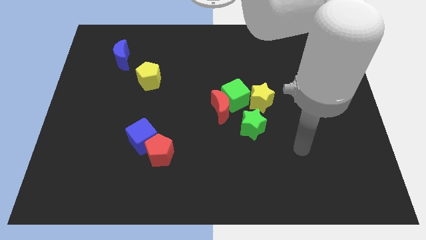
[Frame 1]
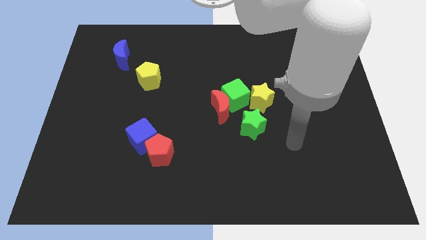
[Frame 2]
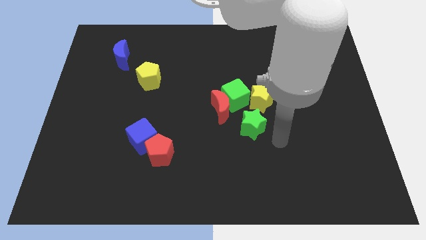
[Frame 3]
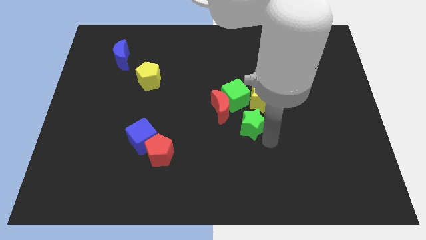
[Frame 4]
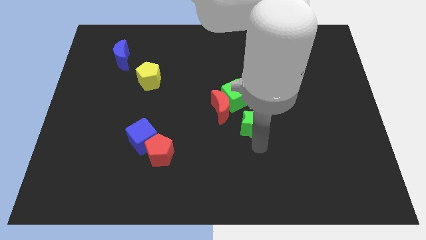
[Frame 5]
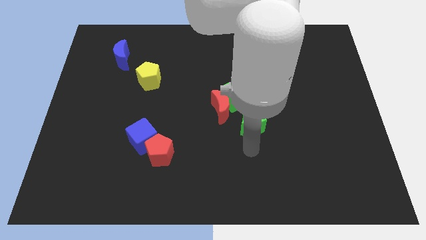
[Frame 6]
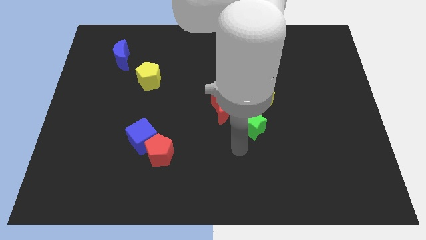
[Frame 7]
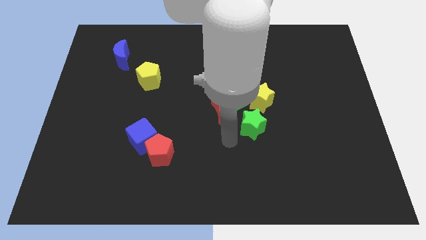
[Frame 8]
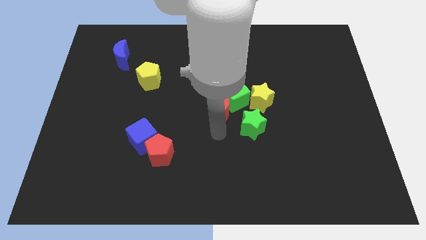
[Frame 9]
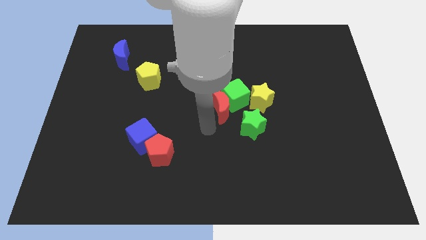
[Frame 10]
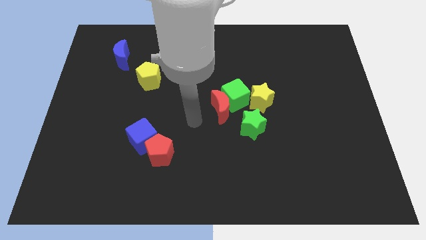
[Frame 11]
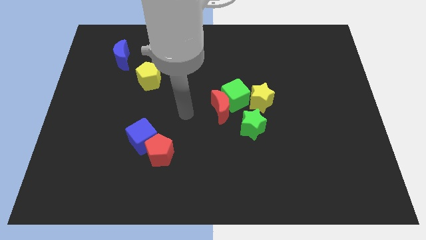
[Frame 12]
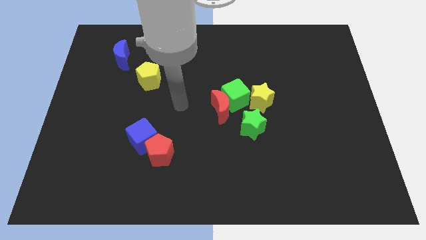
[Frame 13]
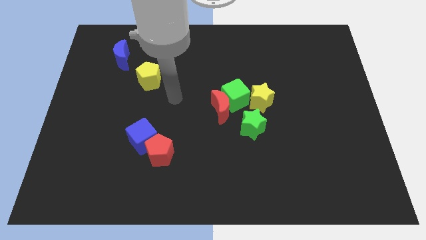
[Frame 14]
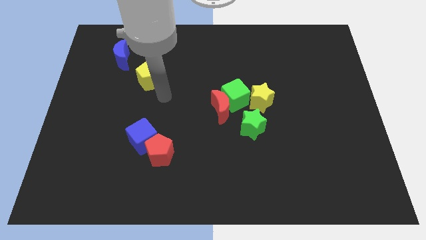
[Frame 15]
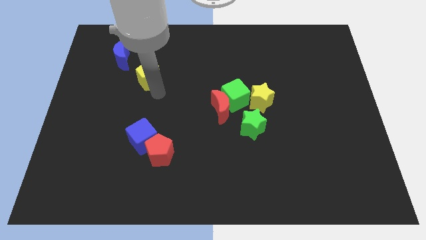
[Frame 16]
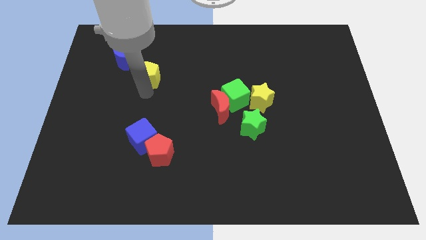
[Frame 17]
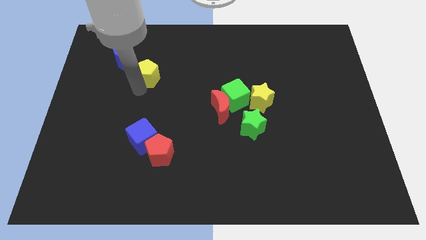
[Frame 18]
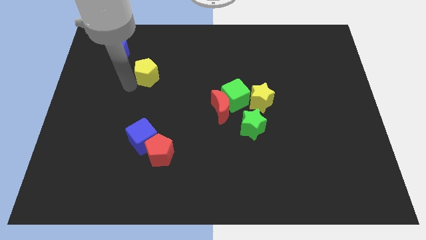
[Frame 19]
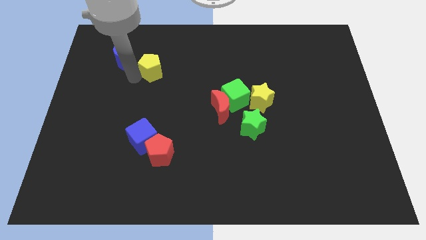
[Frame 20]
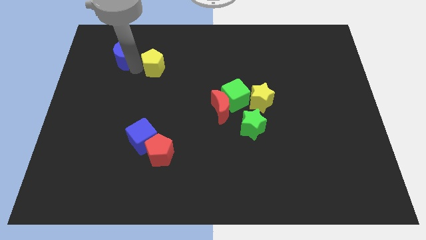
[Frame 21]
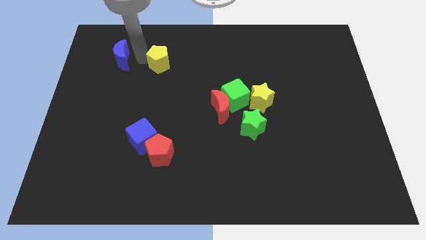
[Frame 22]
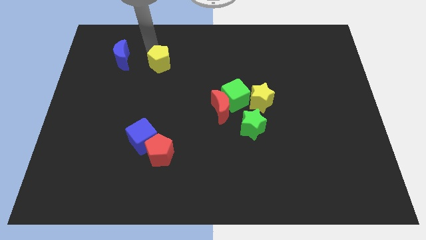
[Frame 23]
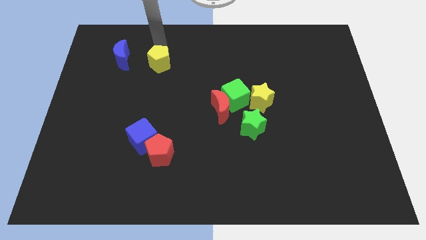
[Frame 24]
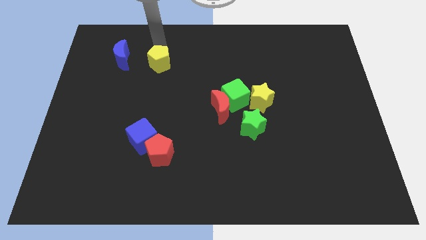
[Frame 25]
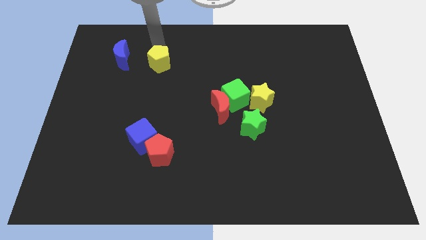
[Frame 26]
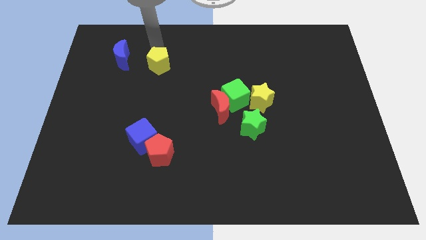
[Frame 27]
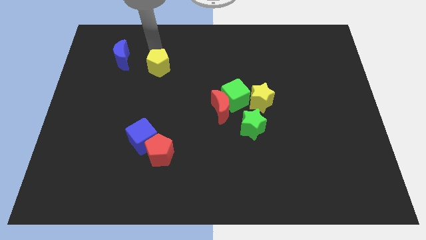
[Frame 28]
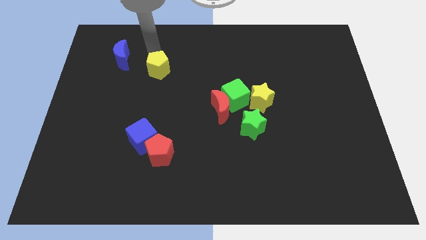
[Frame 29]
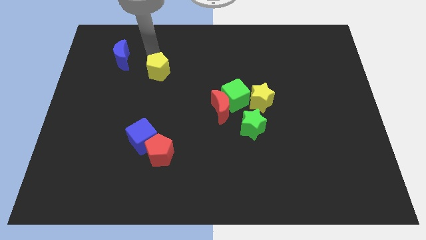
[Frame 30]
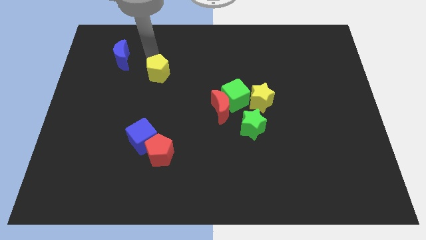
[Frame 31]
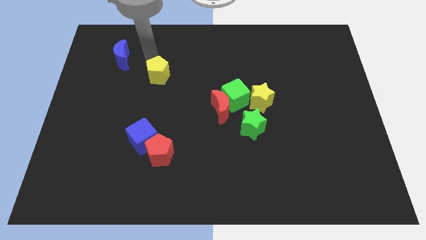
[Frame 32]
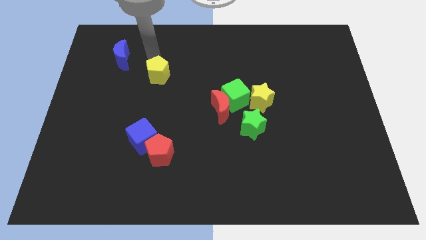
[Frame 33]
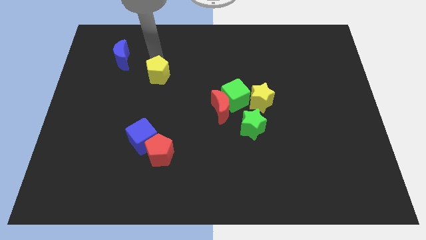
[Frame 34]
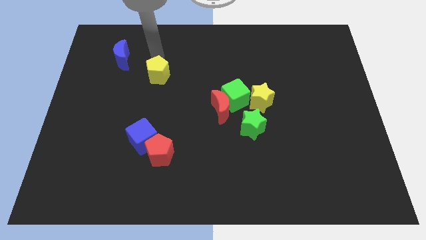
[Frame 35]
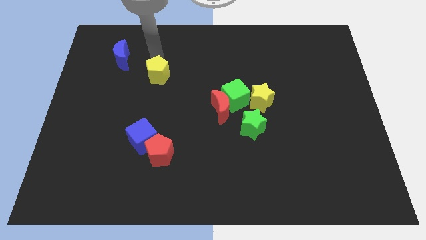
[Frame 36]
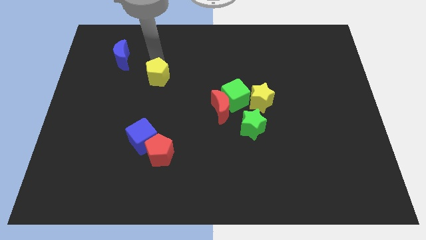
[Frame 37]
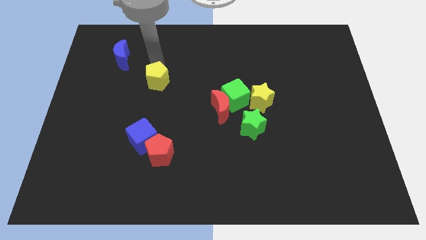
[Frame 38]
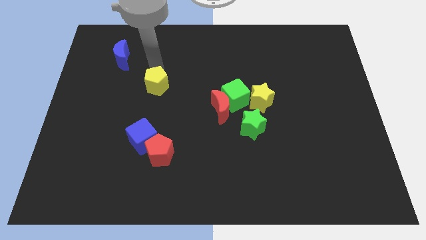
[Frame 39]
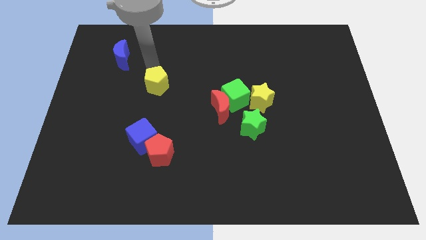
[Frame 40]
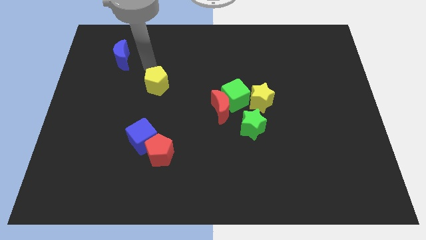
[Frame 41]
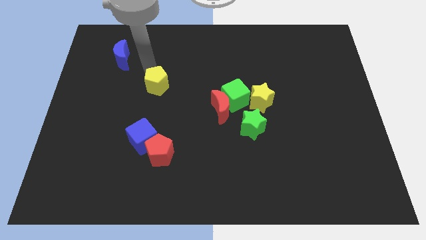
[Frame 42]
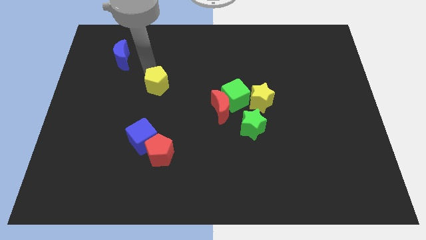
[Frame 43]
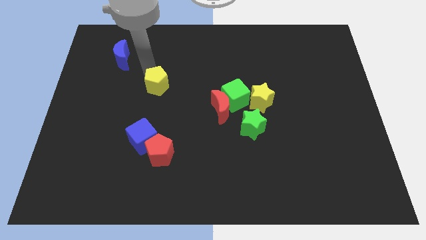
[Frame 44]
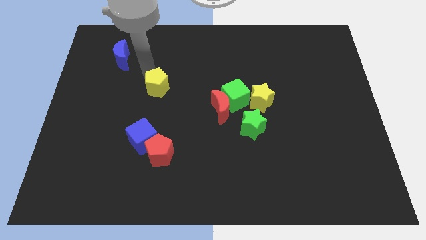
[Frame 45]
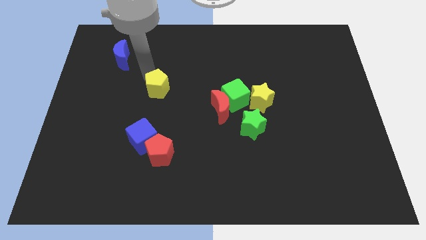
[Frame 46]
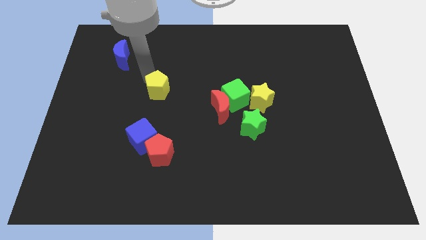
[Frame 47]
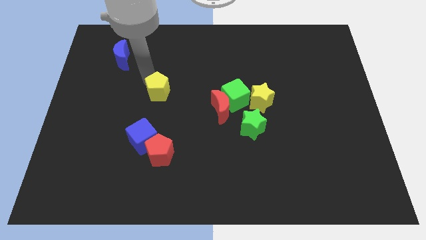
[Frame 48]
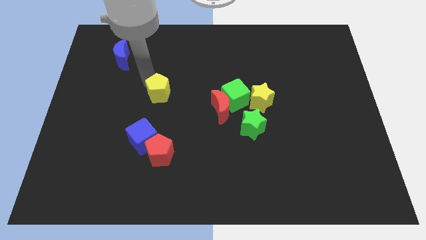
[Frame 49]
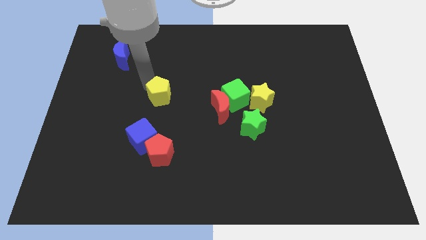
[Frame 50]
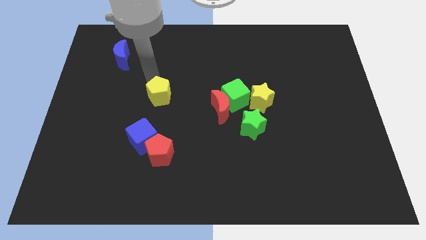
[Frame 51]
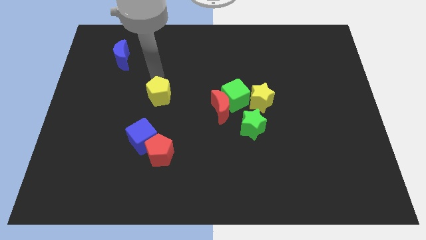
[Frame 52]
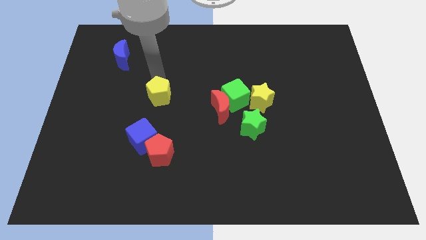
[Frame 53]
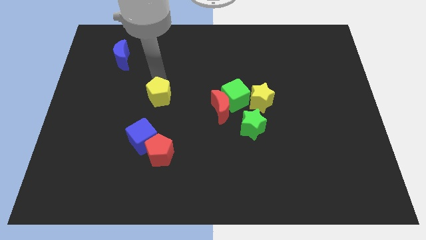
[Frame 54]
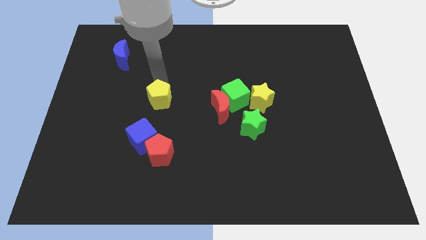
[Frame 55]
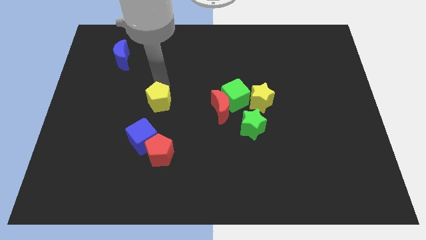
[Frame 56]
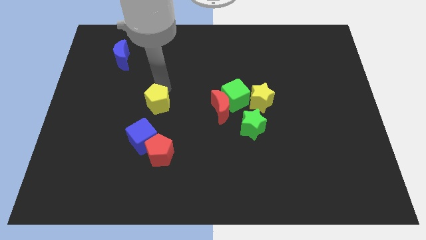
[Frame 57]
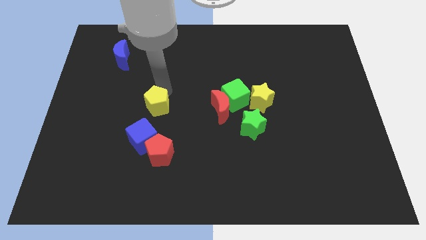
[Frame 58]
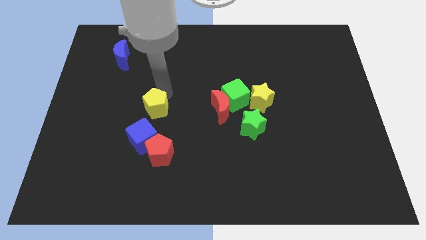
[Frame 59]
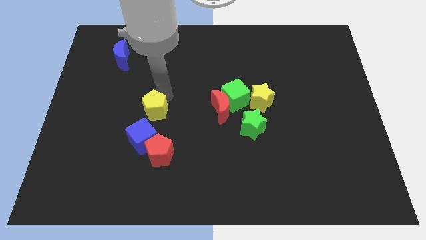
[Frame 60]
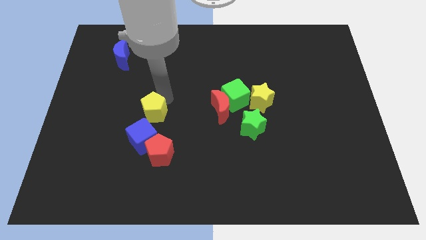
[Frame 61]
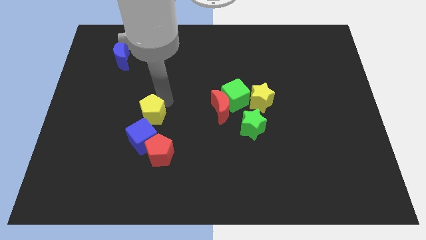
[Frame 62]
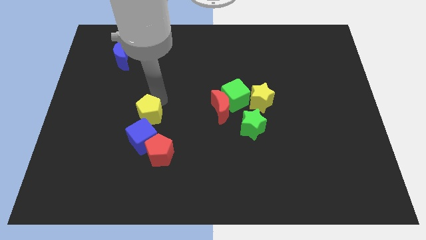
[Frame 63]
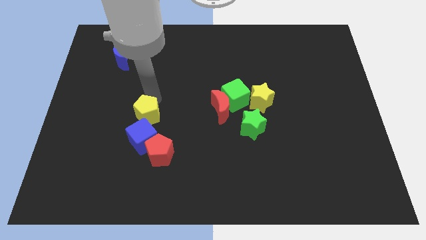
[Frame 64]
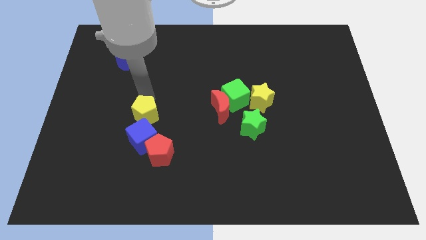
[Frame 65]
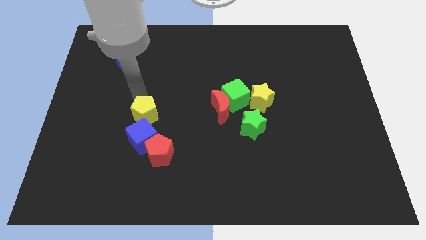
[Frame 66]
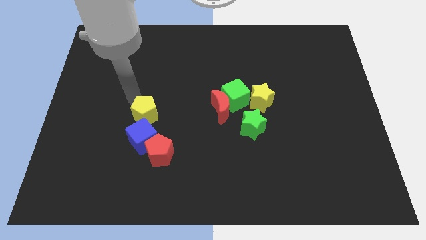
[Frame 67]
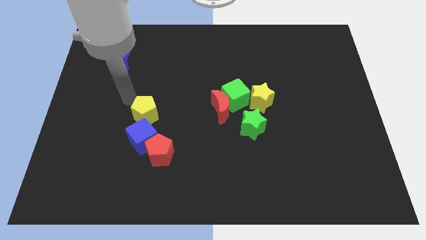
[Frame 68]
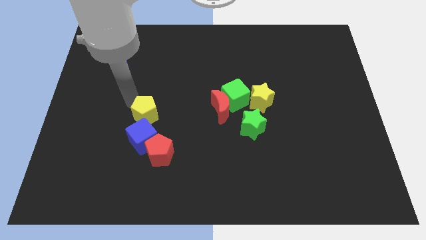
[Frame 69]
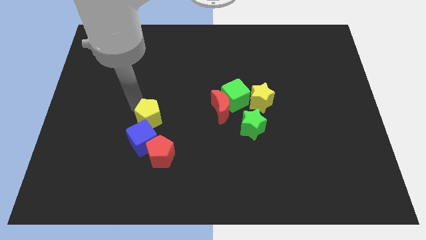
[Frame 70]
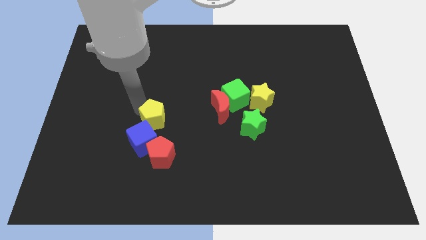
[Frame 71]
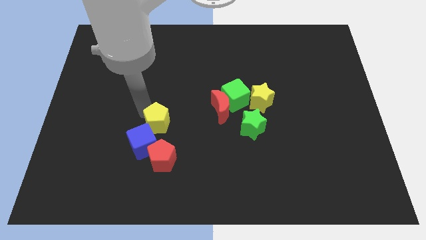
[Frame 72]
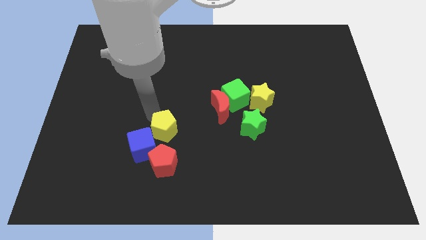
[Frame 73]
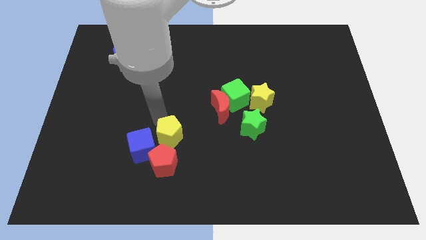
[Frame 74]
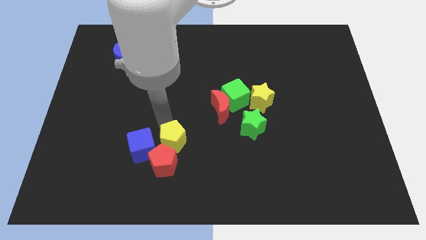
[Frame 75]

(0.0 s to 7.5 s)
put the yellow pentagon close to the red pentagon

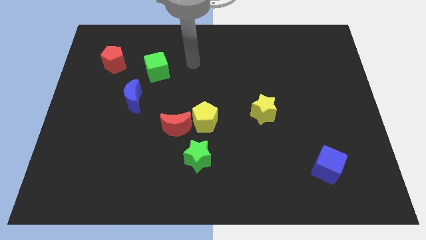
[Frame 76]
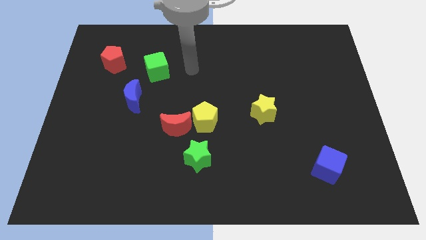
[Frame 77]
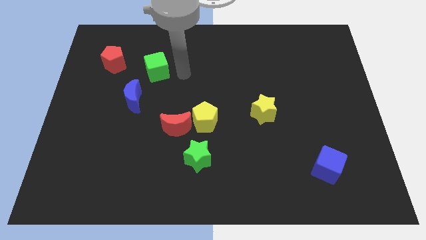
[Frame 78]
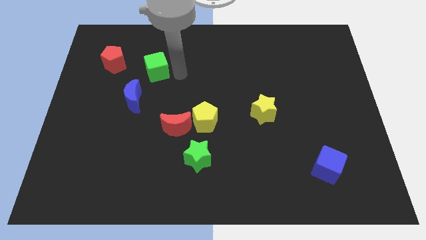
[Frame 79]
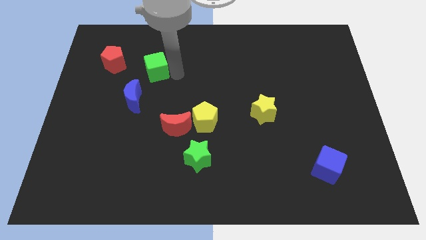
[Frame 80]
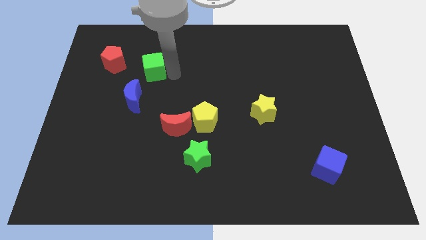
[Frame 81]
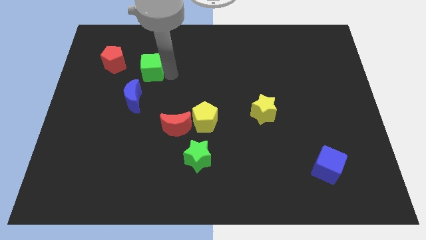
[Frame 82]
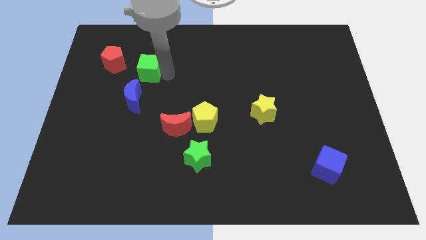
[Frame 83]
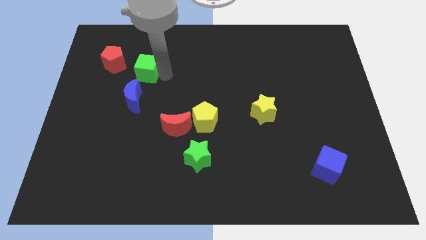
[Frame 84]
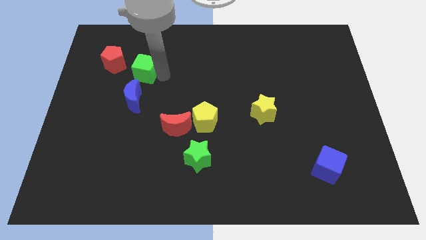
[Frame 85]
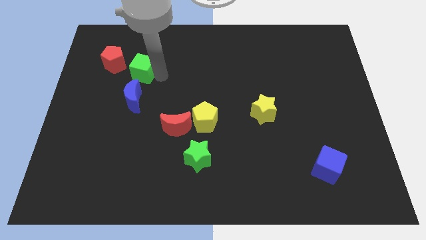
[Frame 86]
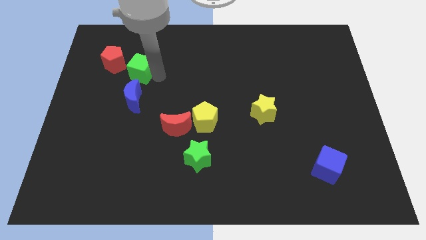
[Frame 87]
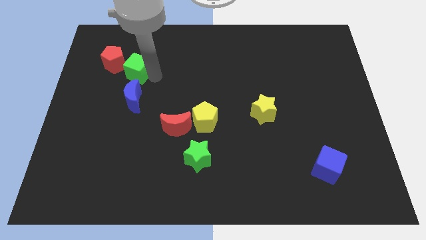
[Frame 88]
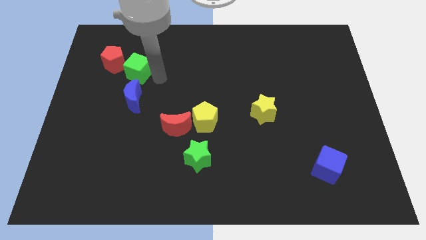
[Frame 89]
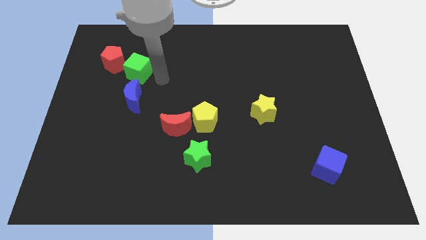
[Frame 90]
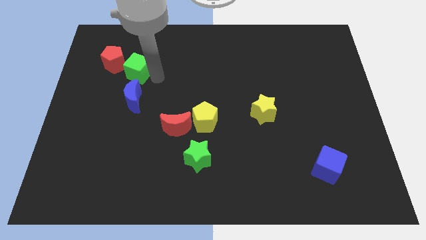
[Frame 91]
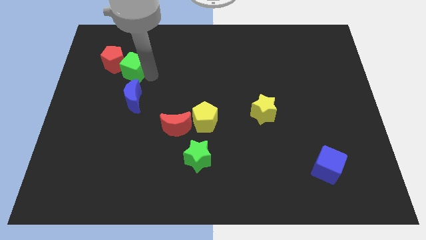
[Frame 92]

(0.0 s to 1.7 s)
push the green cube towards the red pentagon
